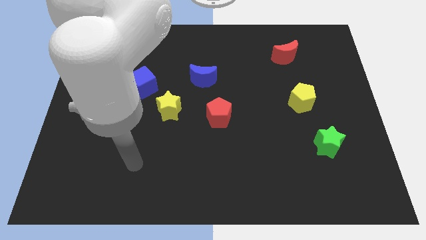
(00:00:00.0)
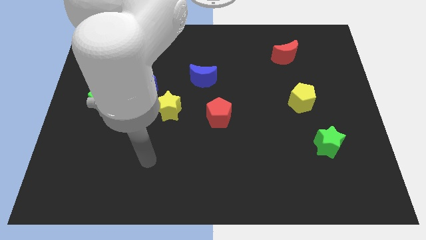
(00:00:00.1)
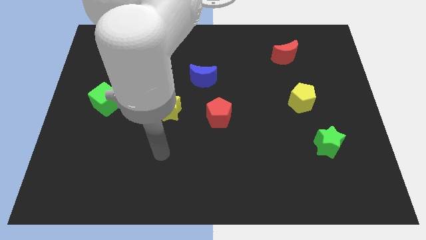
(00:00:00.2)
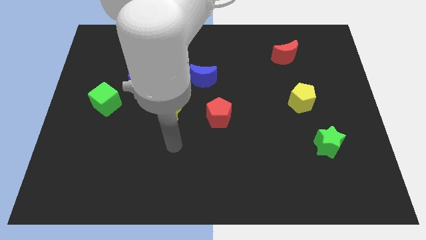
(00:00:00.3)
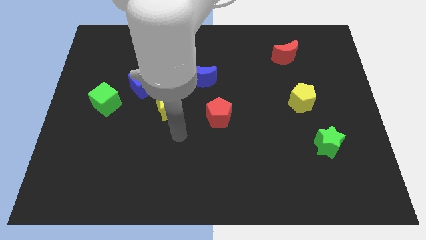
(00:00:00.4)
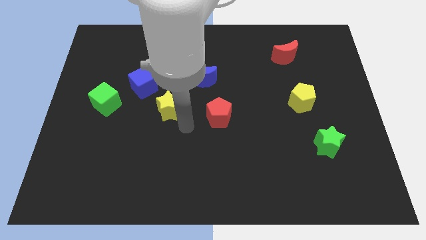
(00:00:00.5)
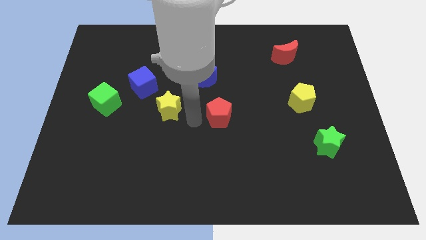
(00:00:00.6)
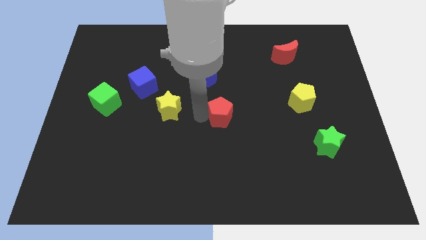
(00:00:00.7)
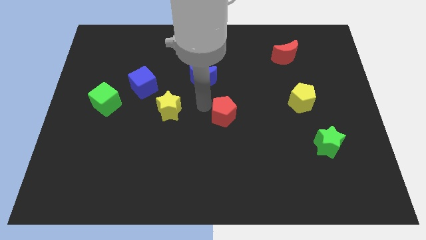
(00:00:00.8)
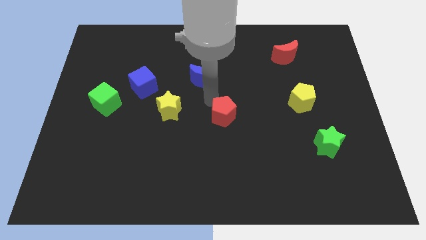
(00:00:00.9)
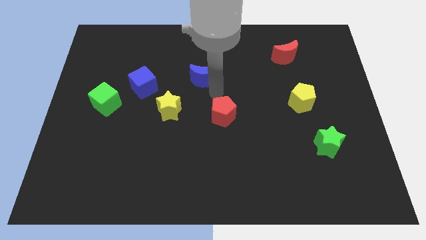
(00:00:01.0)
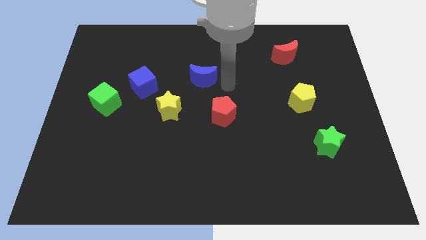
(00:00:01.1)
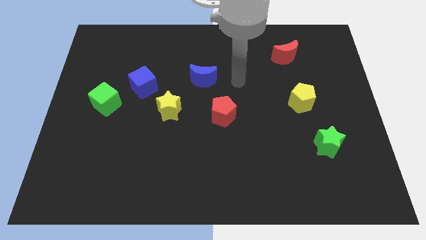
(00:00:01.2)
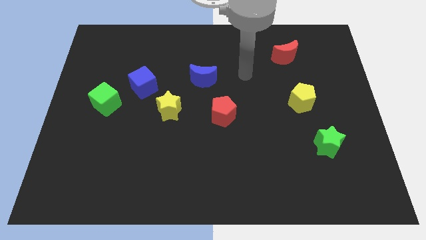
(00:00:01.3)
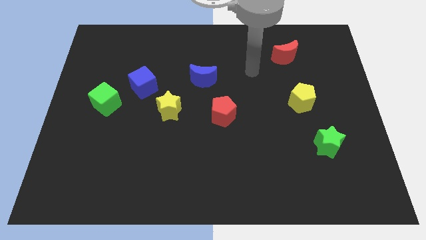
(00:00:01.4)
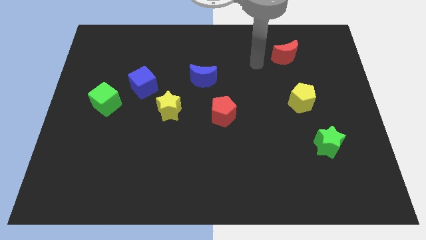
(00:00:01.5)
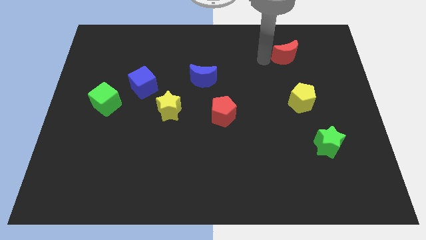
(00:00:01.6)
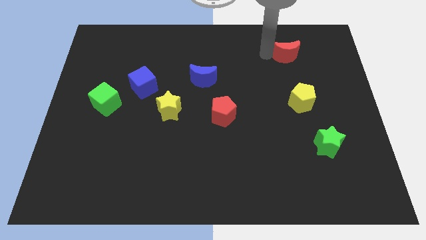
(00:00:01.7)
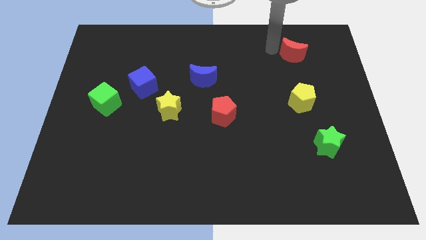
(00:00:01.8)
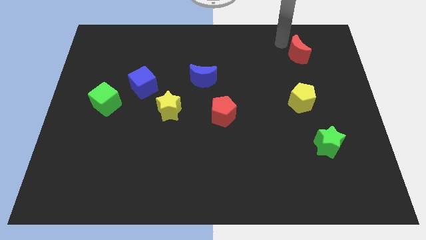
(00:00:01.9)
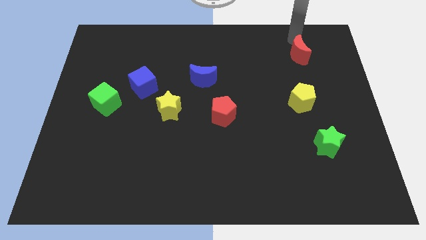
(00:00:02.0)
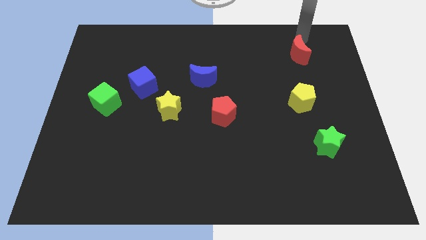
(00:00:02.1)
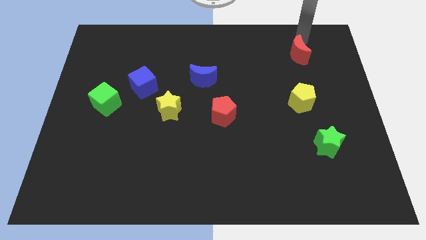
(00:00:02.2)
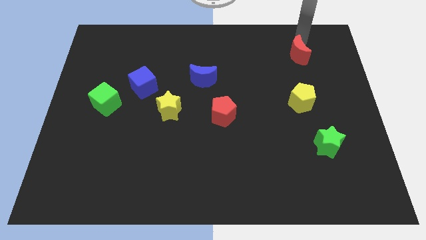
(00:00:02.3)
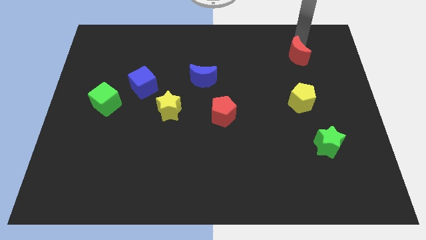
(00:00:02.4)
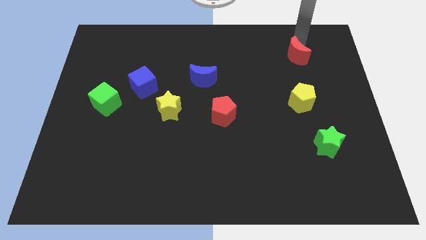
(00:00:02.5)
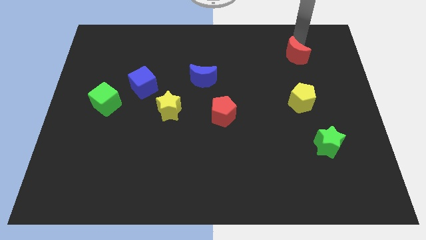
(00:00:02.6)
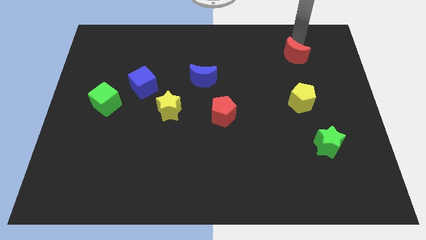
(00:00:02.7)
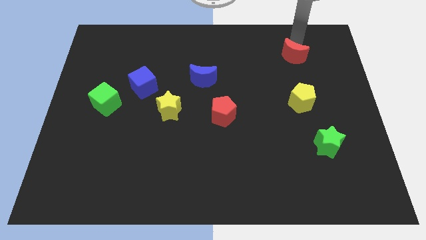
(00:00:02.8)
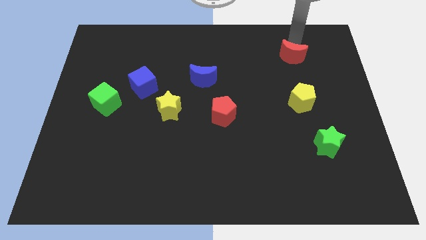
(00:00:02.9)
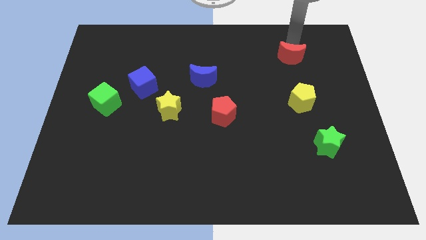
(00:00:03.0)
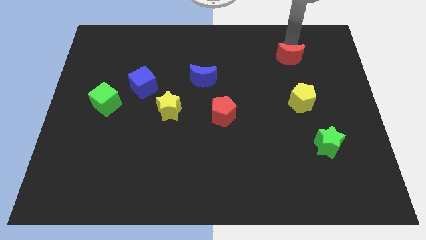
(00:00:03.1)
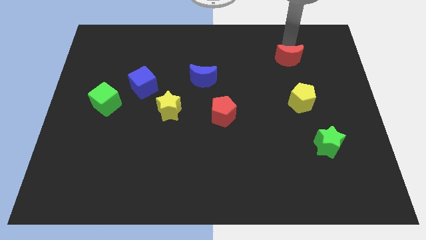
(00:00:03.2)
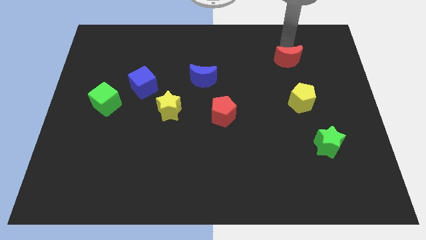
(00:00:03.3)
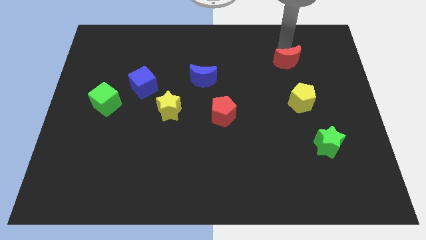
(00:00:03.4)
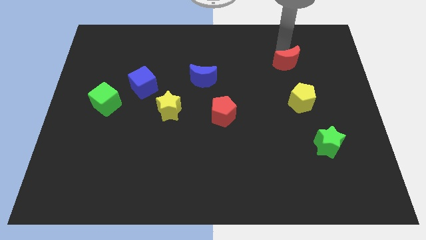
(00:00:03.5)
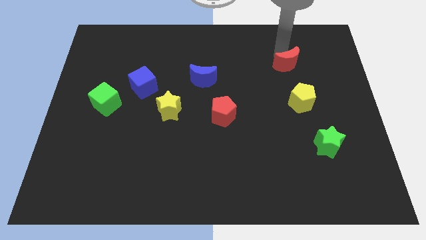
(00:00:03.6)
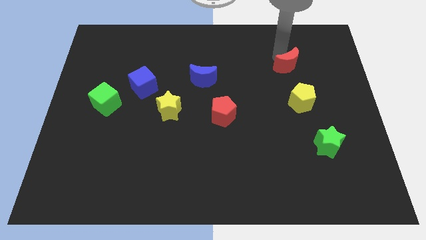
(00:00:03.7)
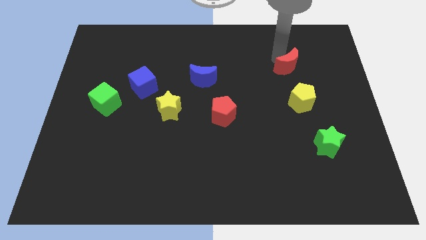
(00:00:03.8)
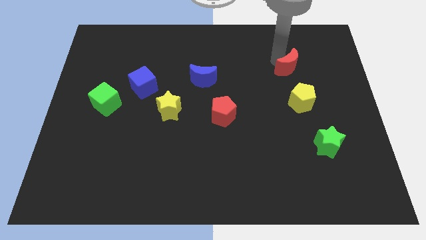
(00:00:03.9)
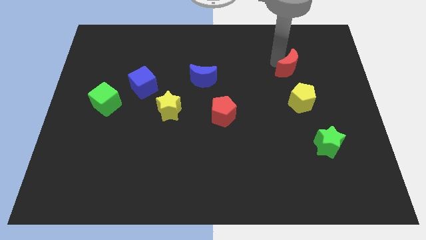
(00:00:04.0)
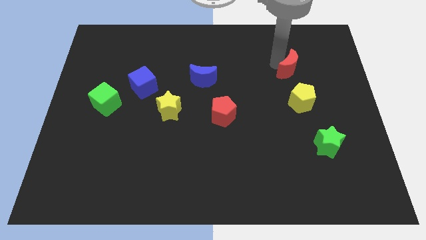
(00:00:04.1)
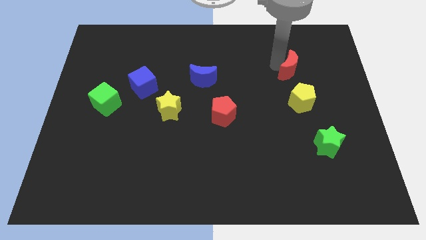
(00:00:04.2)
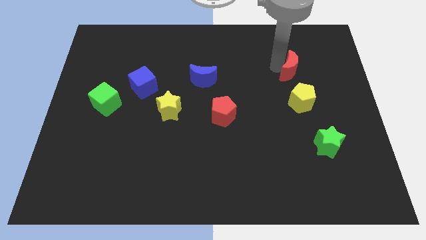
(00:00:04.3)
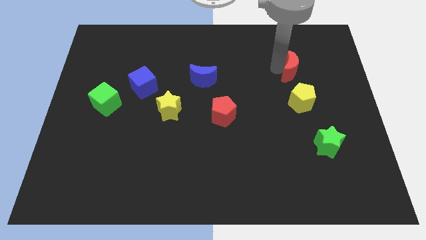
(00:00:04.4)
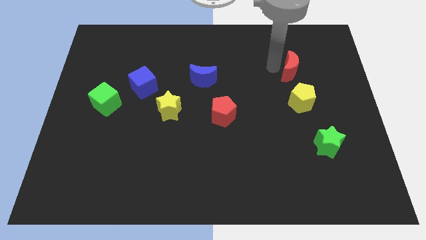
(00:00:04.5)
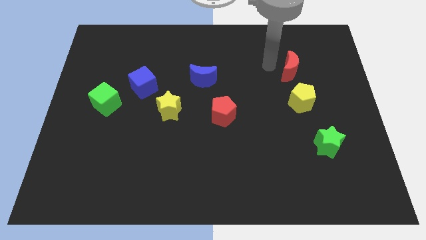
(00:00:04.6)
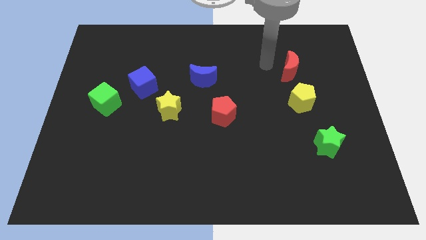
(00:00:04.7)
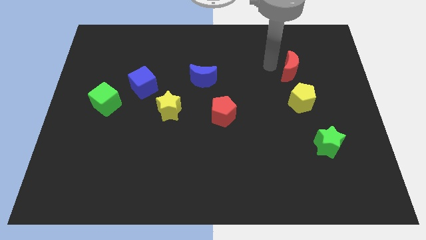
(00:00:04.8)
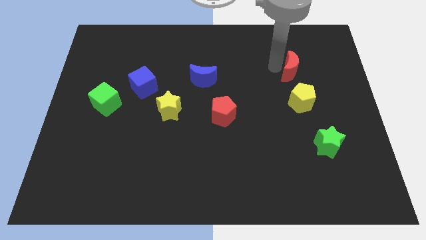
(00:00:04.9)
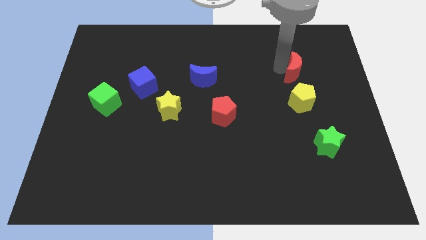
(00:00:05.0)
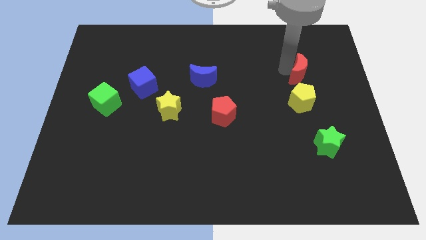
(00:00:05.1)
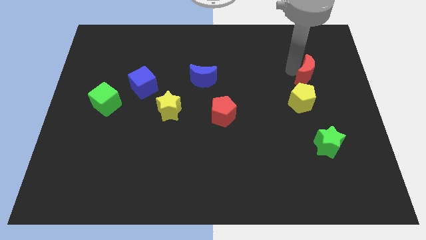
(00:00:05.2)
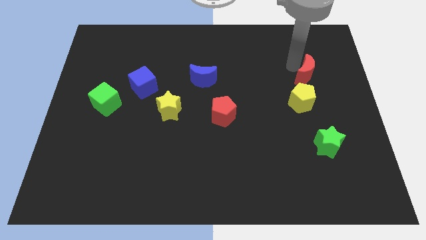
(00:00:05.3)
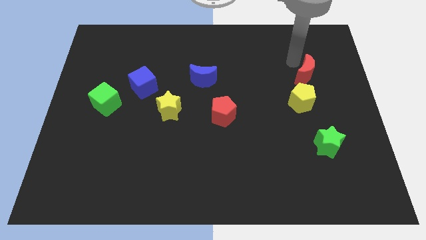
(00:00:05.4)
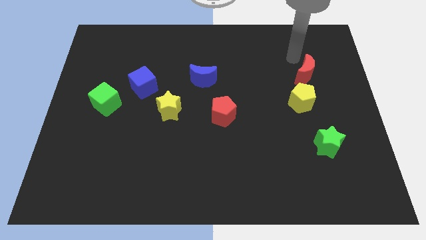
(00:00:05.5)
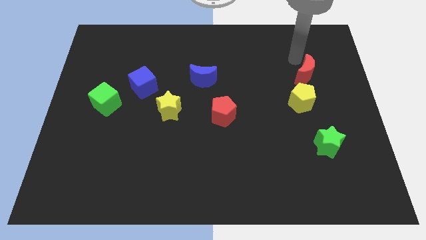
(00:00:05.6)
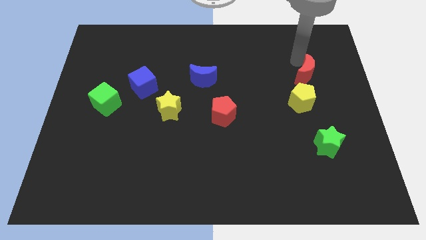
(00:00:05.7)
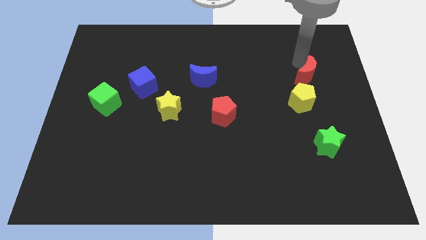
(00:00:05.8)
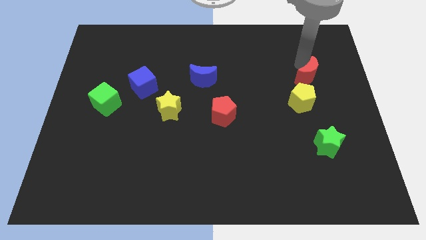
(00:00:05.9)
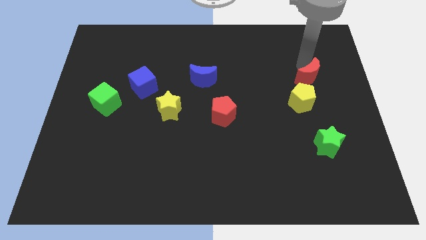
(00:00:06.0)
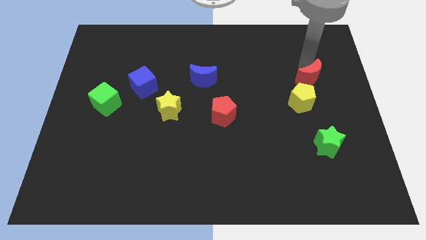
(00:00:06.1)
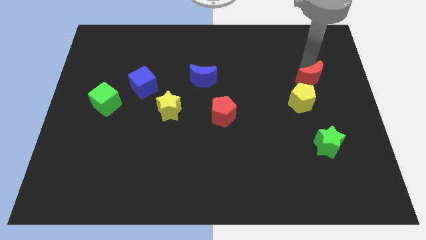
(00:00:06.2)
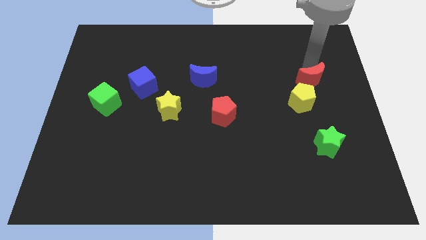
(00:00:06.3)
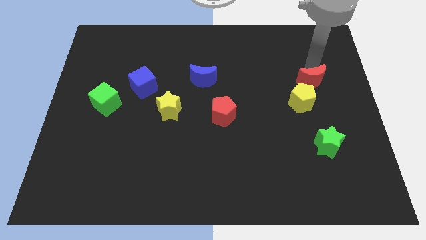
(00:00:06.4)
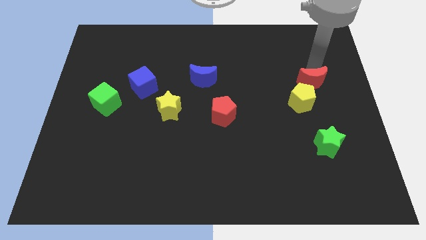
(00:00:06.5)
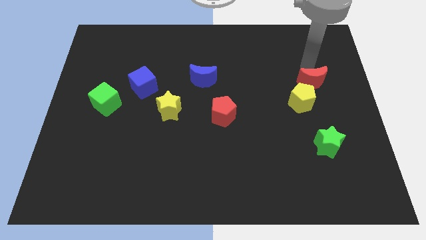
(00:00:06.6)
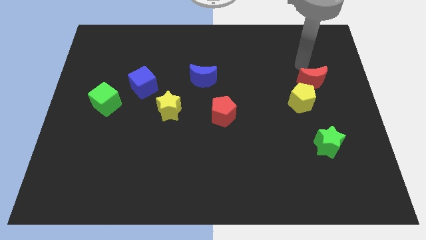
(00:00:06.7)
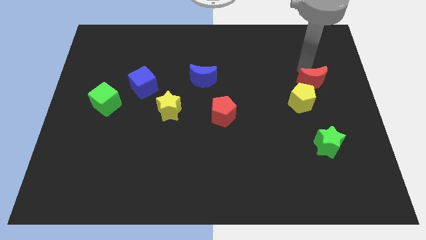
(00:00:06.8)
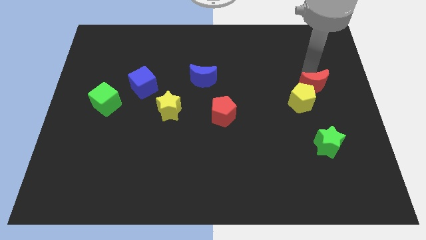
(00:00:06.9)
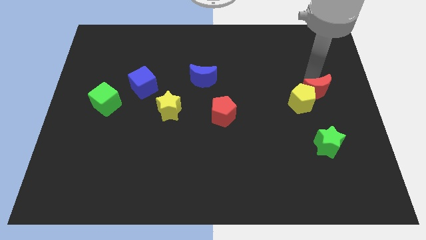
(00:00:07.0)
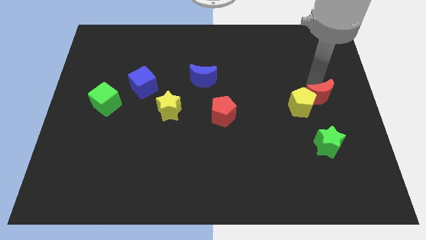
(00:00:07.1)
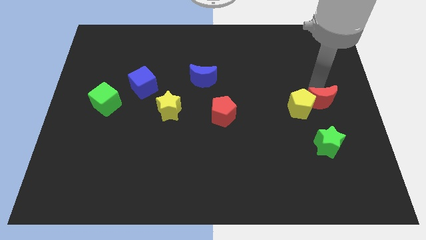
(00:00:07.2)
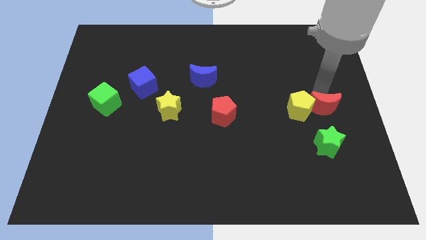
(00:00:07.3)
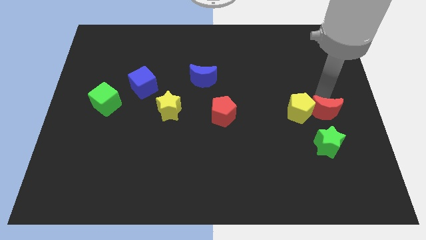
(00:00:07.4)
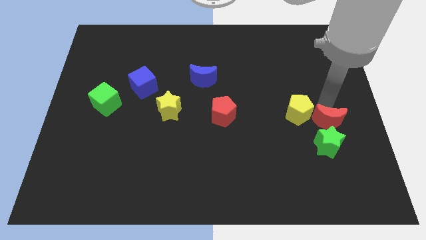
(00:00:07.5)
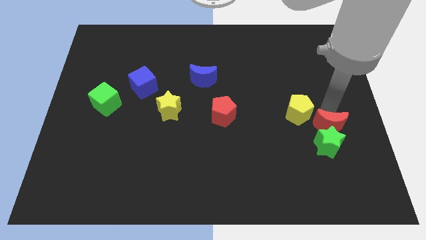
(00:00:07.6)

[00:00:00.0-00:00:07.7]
put the red moon close to the green star

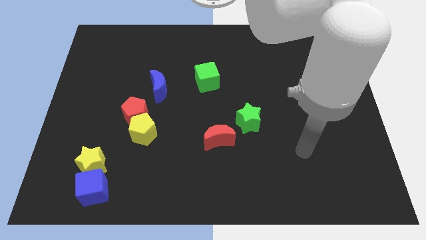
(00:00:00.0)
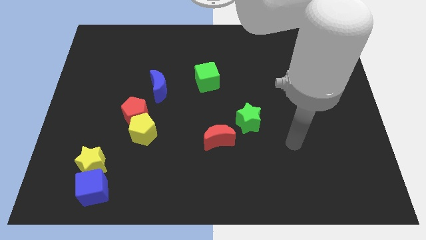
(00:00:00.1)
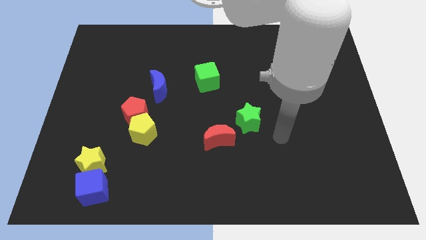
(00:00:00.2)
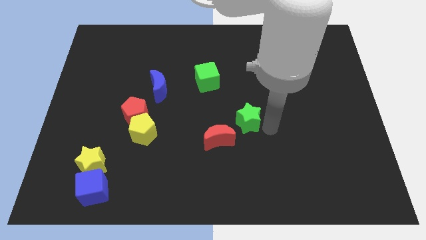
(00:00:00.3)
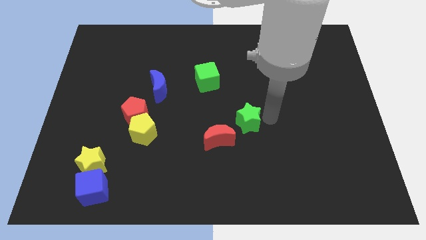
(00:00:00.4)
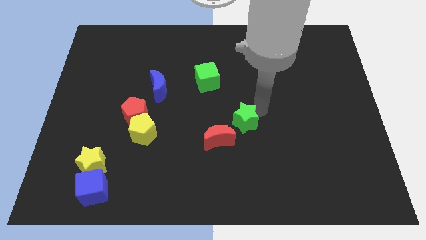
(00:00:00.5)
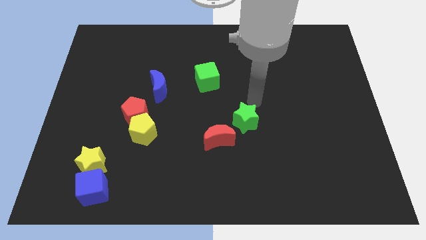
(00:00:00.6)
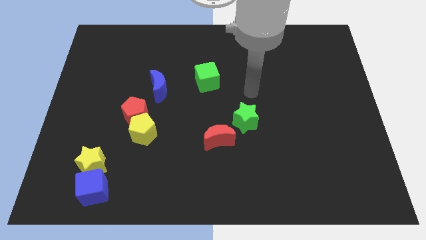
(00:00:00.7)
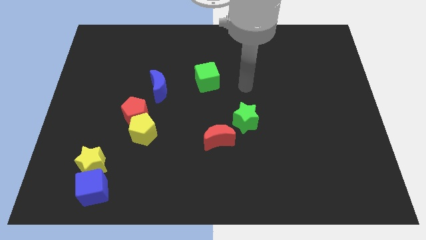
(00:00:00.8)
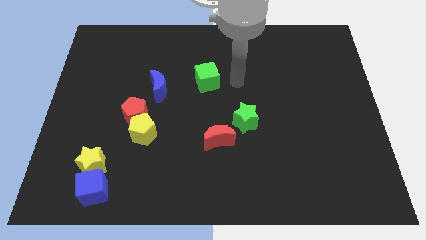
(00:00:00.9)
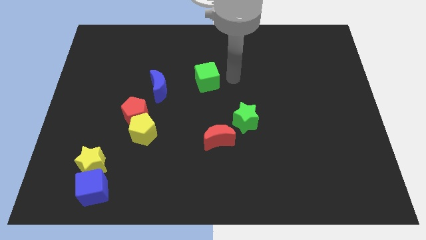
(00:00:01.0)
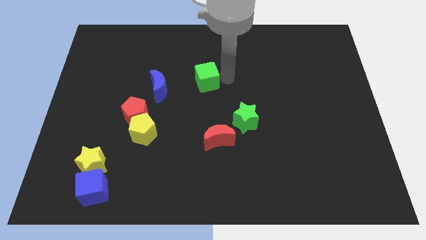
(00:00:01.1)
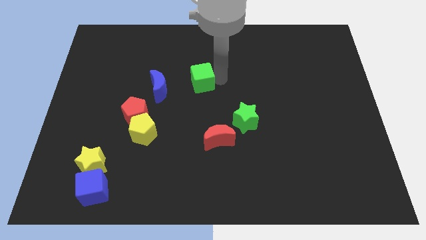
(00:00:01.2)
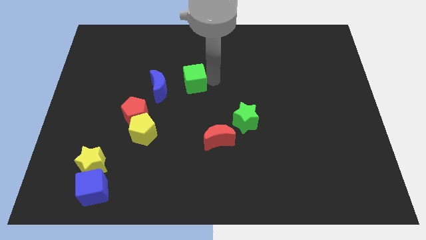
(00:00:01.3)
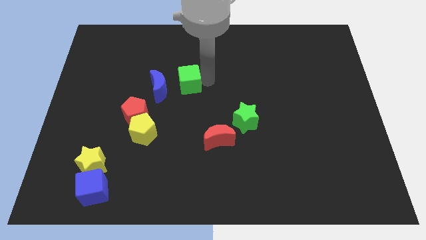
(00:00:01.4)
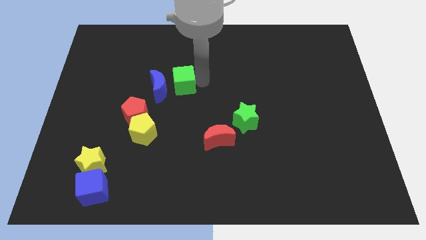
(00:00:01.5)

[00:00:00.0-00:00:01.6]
push the green cube close to the blue moon
